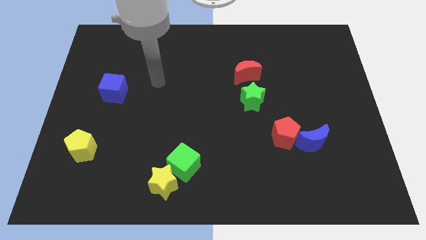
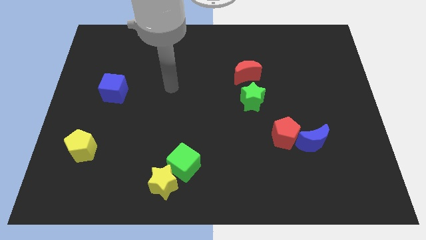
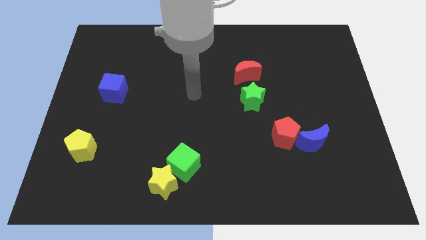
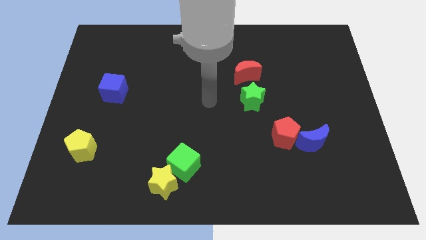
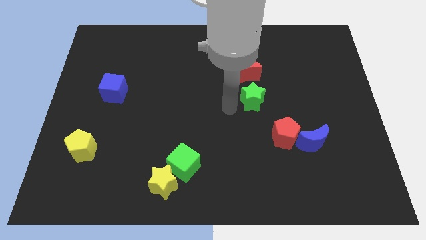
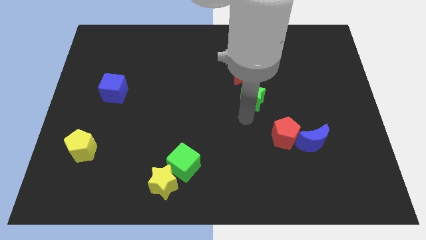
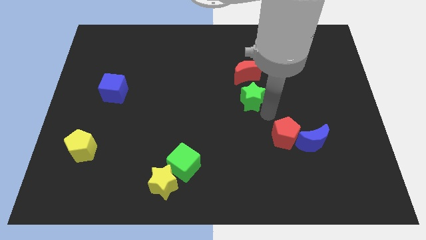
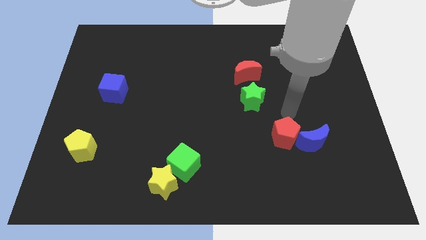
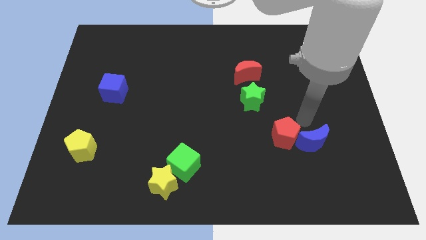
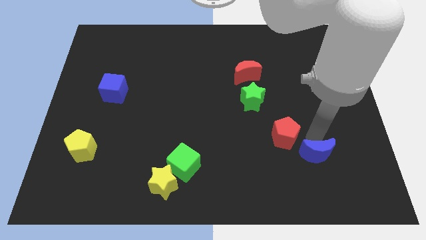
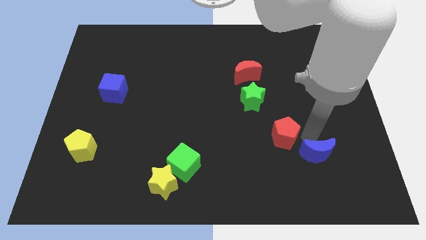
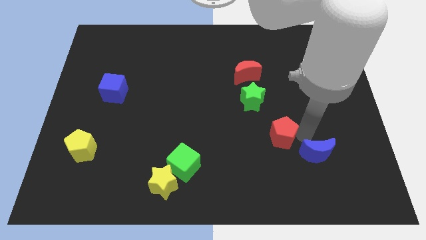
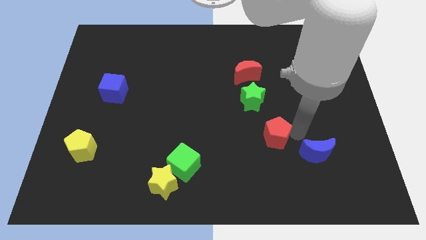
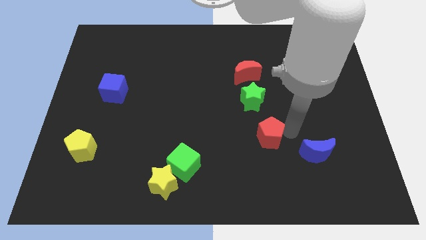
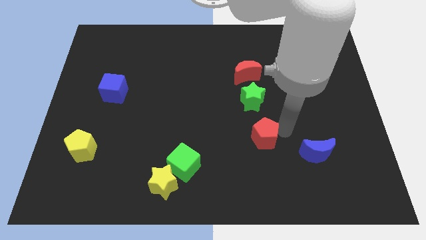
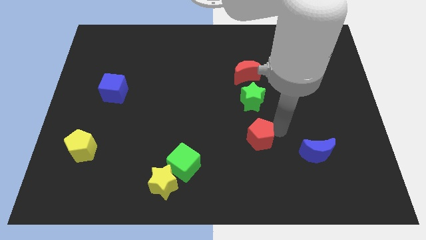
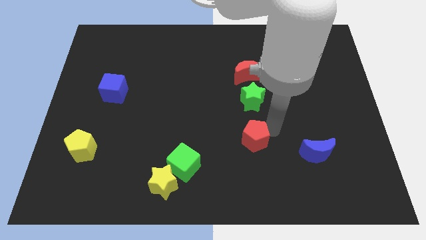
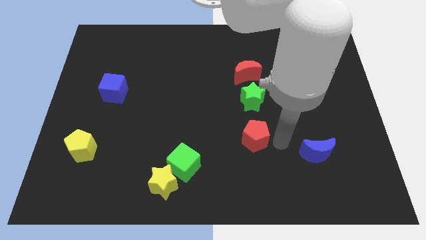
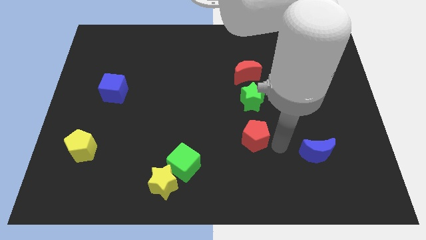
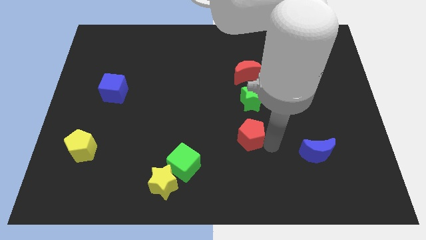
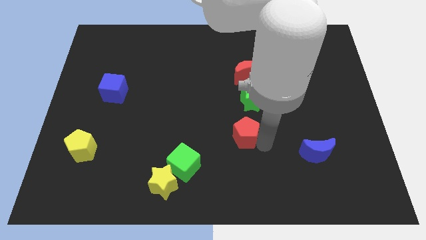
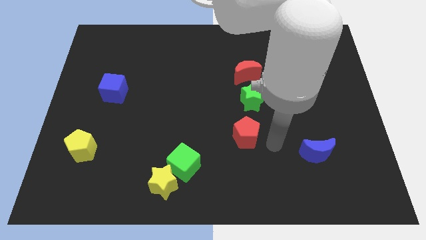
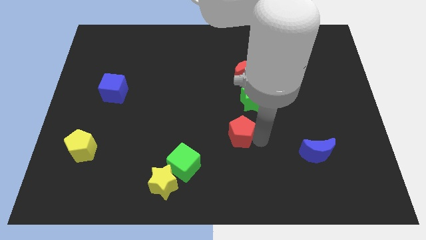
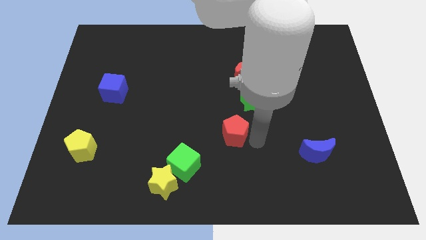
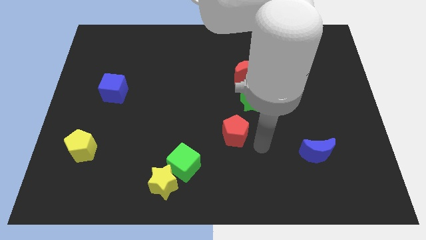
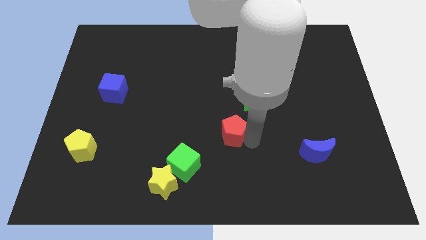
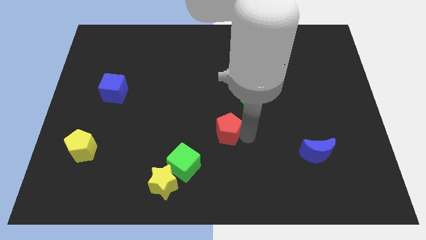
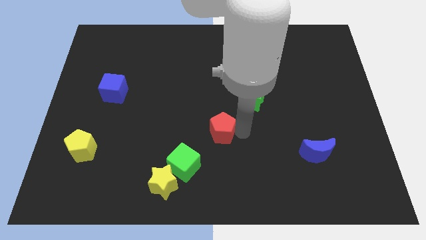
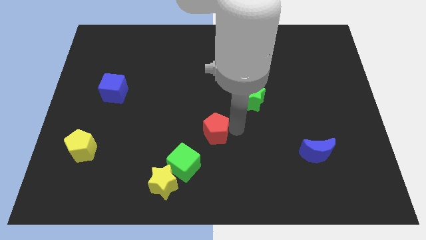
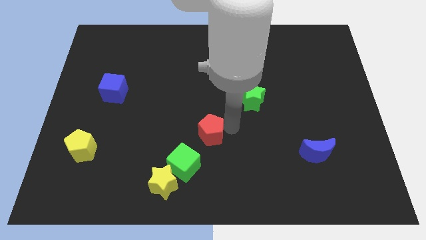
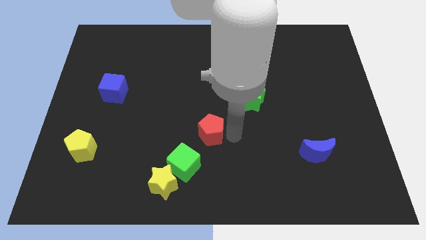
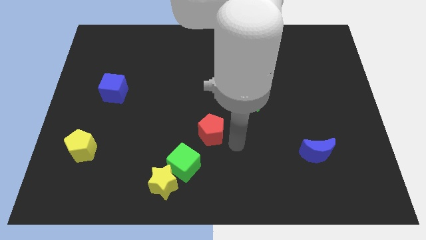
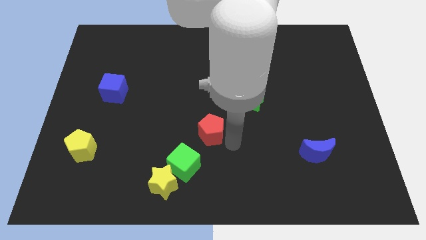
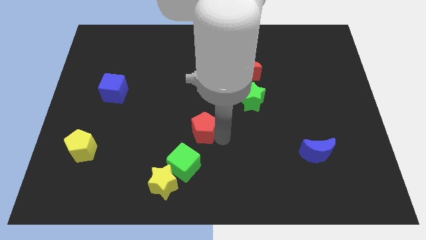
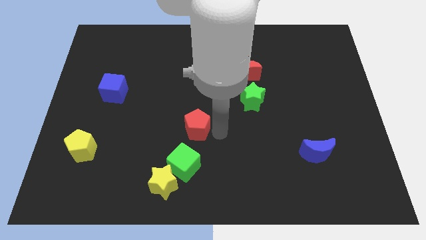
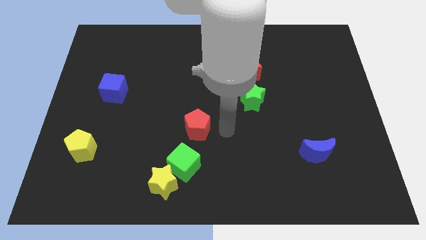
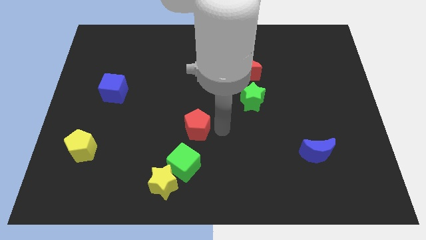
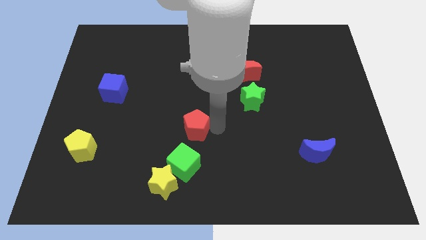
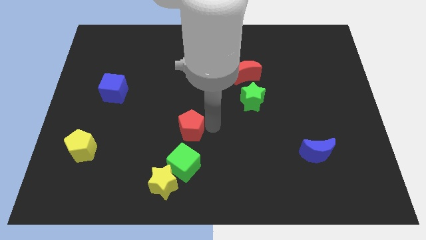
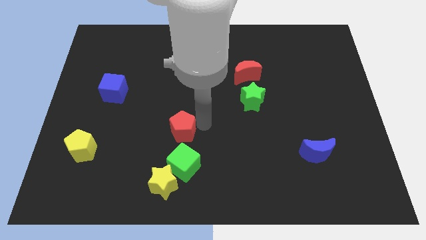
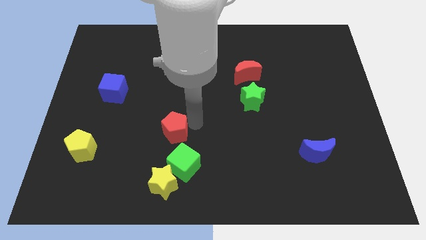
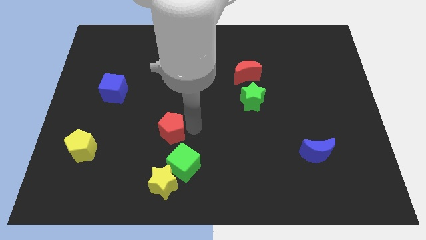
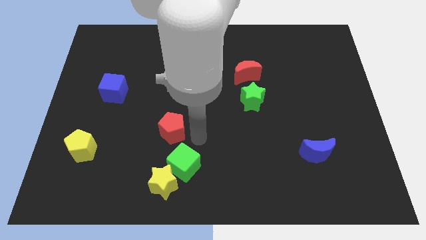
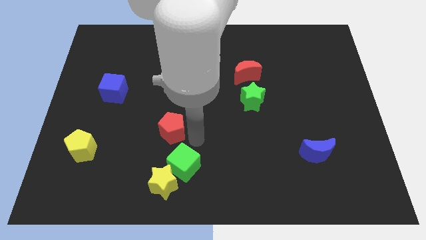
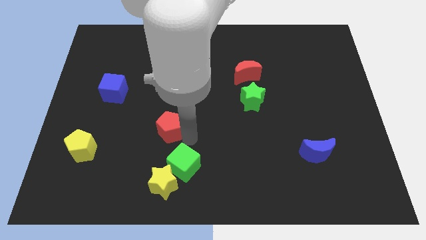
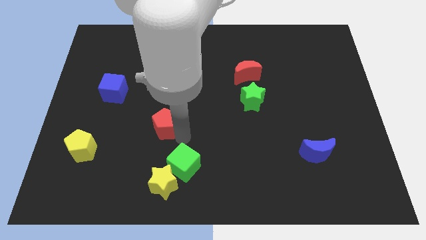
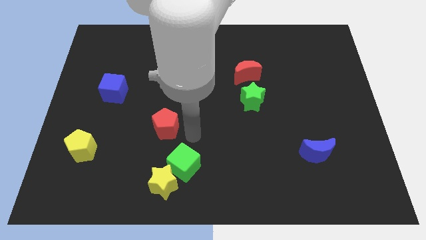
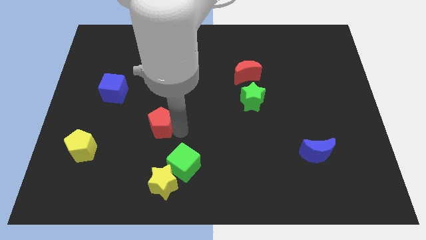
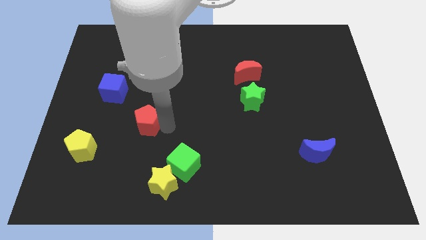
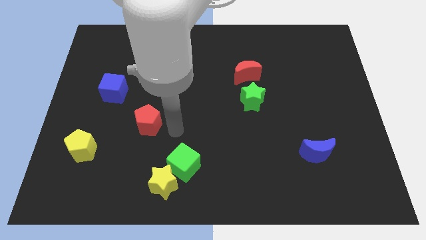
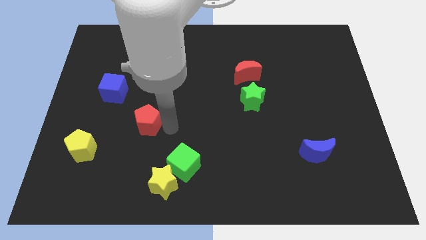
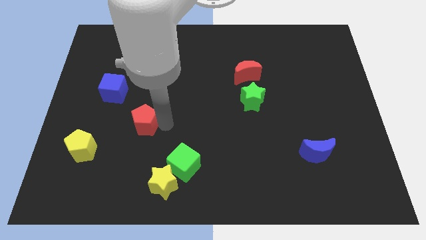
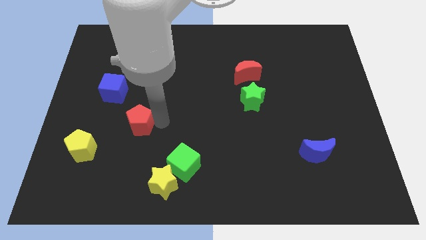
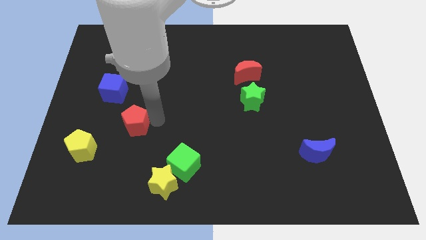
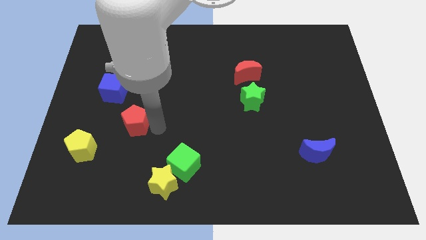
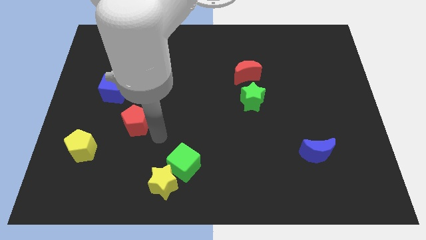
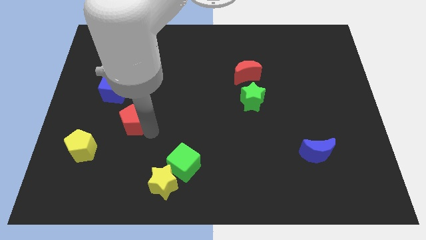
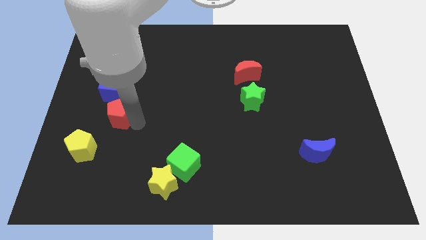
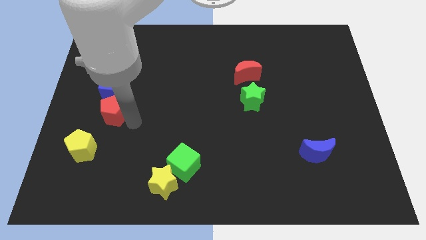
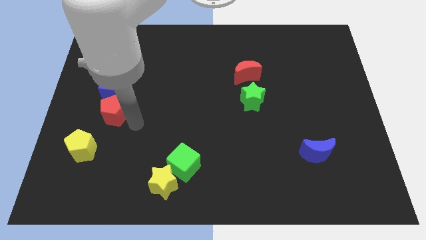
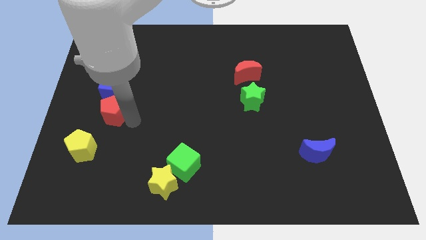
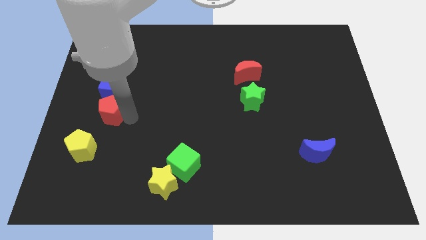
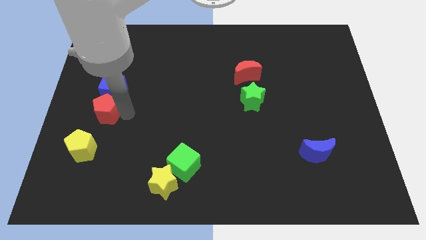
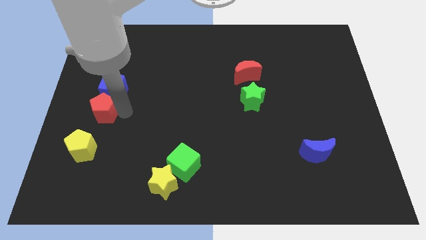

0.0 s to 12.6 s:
push the red pentagon to the left side of the board
